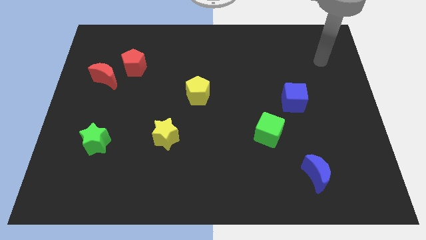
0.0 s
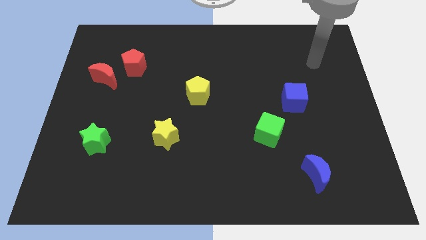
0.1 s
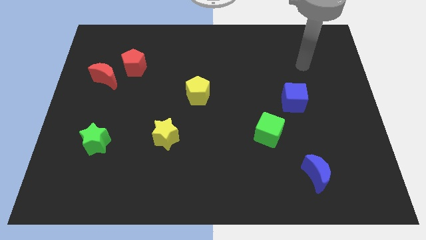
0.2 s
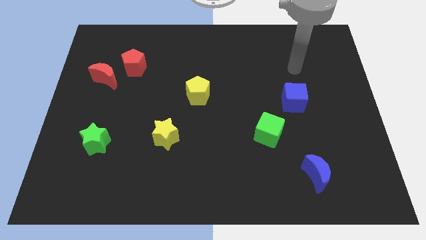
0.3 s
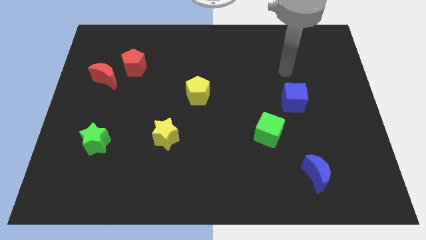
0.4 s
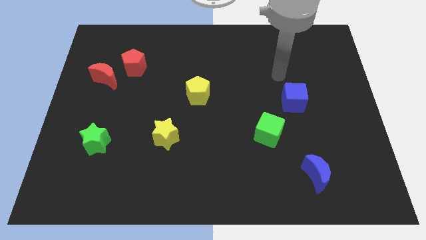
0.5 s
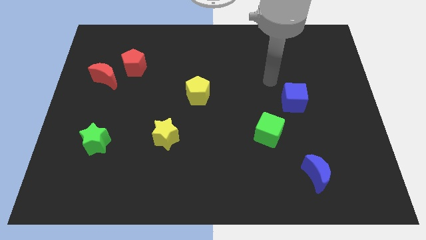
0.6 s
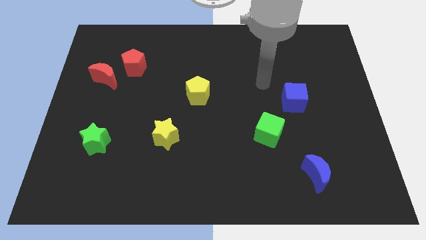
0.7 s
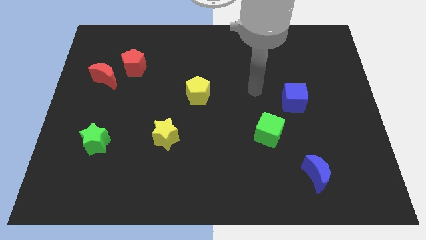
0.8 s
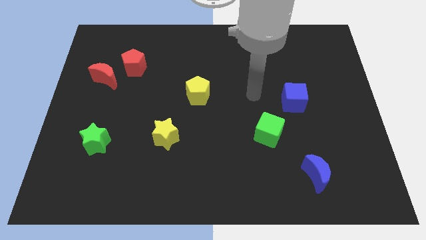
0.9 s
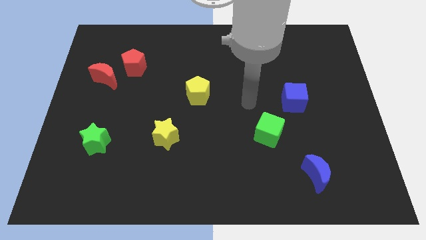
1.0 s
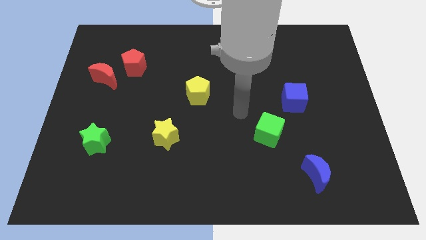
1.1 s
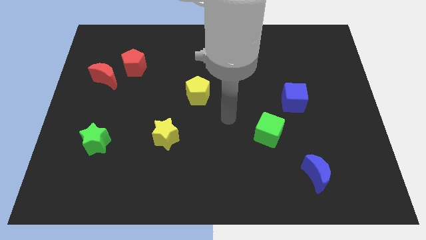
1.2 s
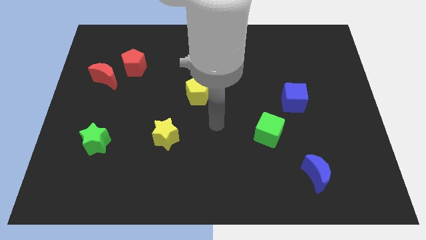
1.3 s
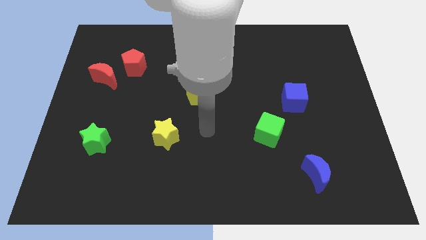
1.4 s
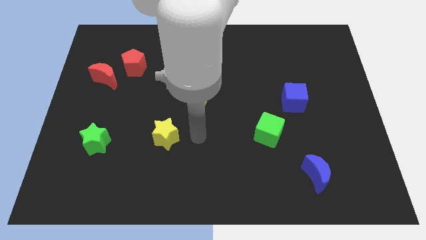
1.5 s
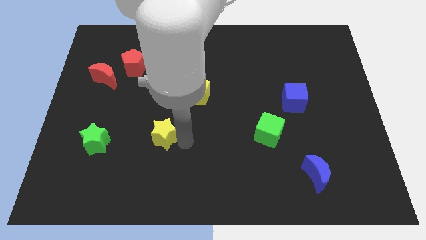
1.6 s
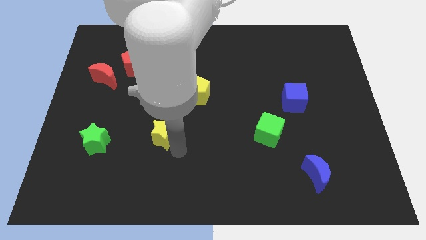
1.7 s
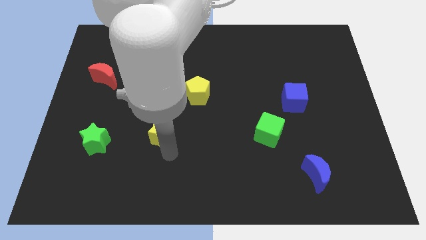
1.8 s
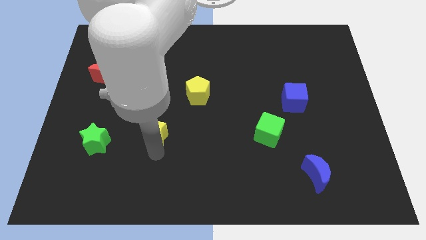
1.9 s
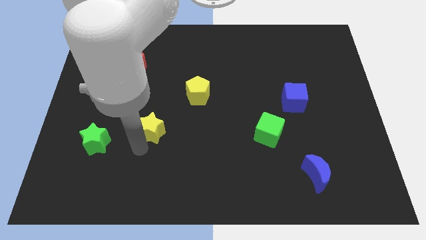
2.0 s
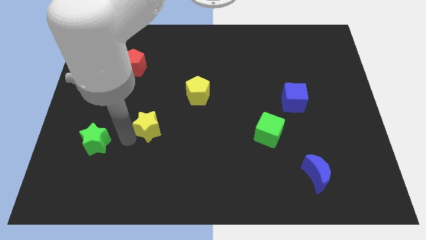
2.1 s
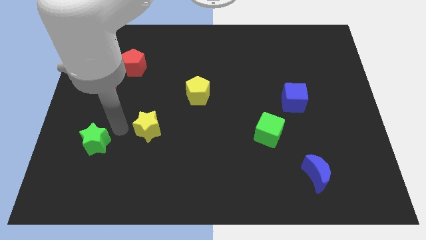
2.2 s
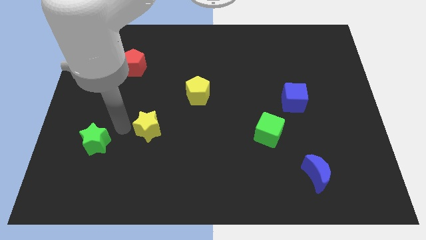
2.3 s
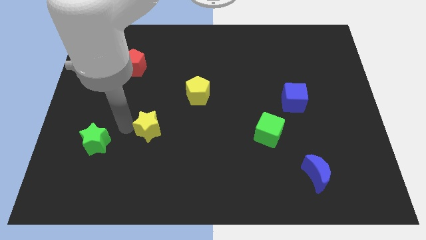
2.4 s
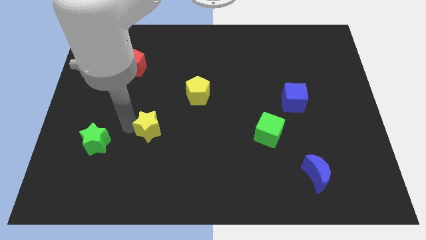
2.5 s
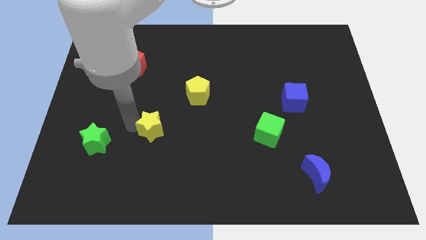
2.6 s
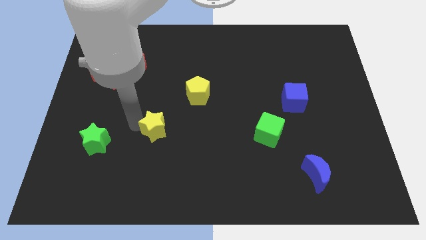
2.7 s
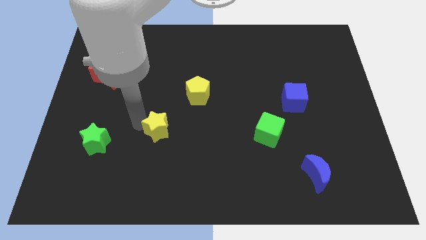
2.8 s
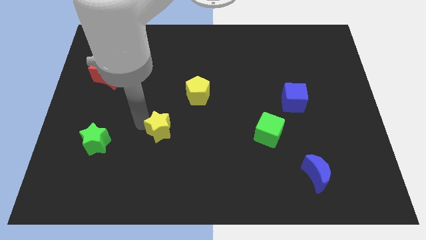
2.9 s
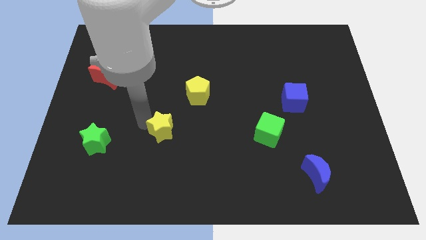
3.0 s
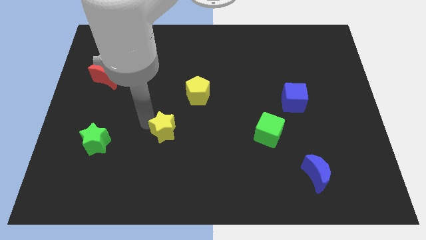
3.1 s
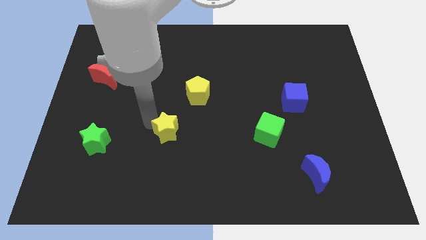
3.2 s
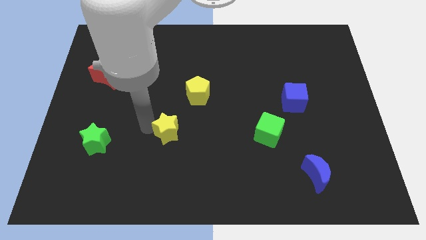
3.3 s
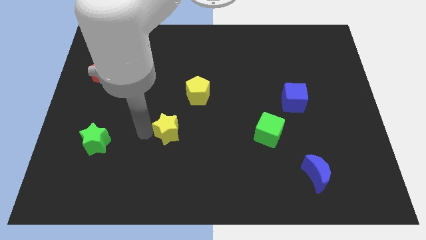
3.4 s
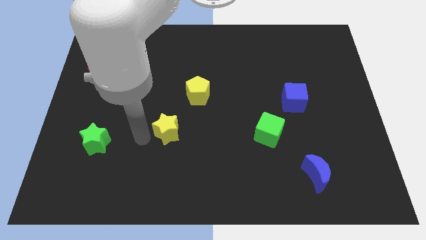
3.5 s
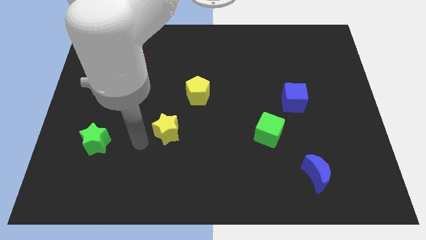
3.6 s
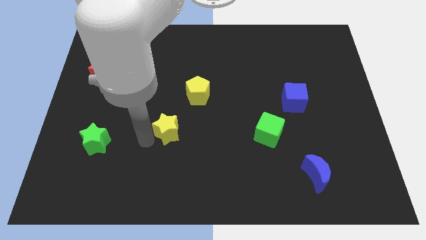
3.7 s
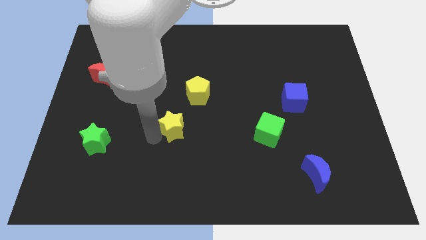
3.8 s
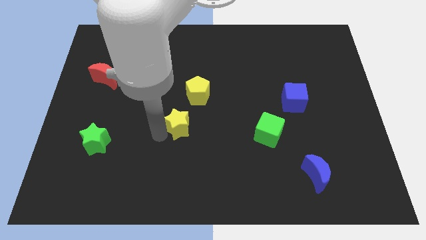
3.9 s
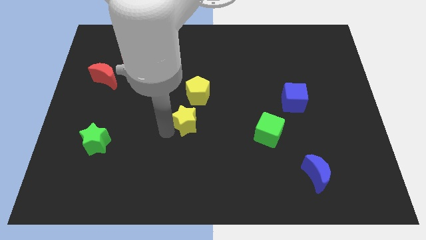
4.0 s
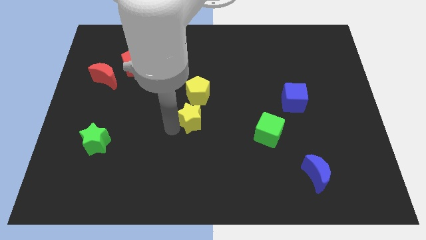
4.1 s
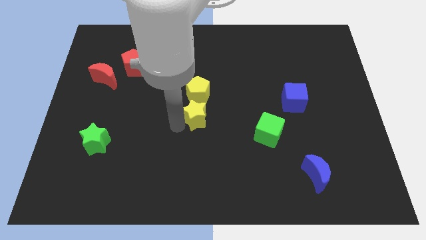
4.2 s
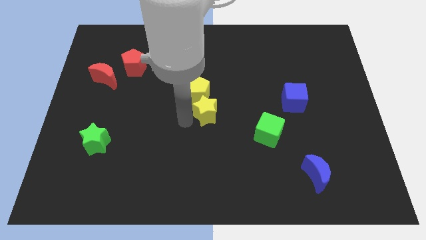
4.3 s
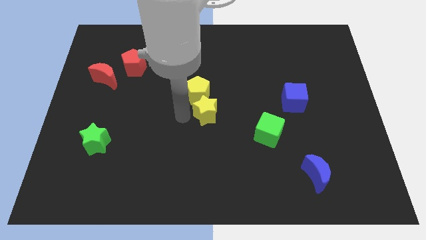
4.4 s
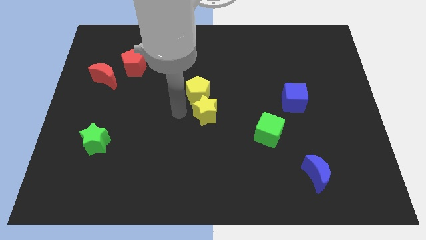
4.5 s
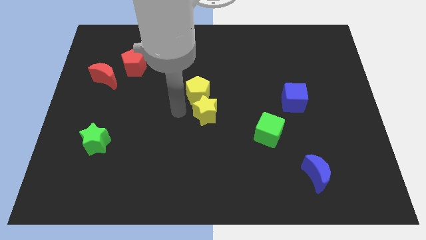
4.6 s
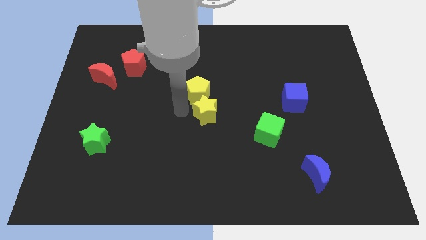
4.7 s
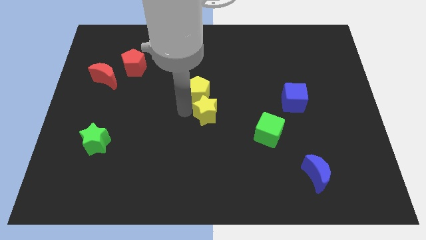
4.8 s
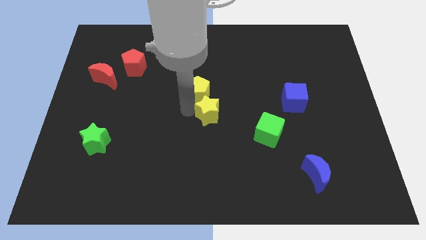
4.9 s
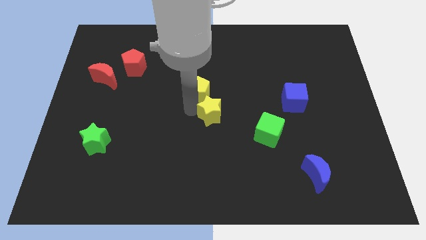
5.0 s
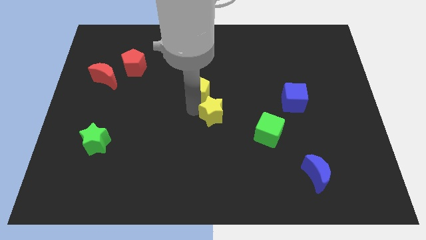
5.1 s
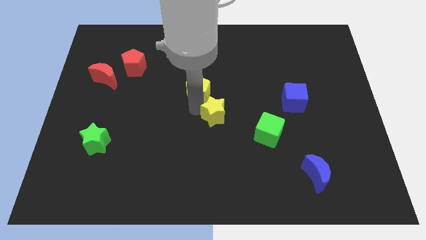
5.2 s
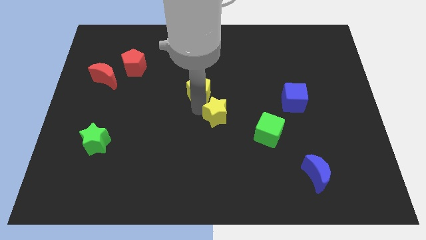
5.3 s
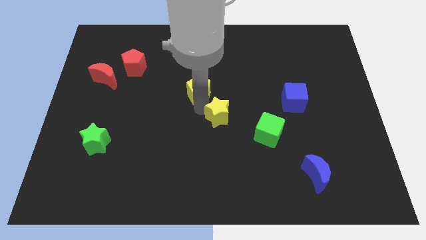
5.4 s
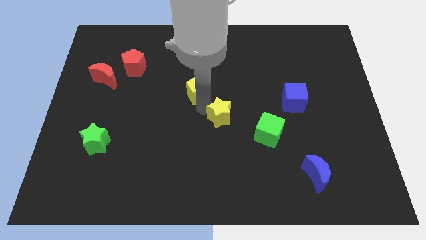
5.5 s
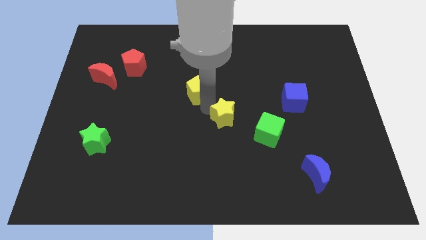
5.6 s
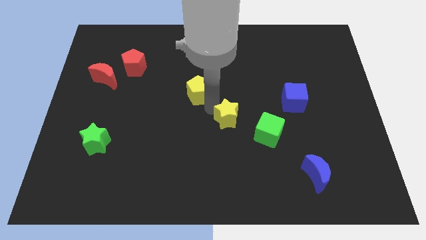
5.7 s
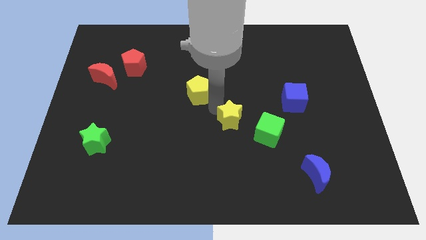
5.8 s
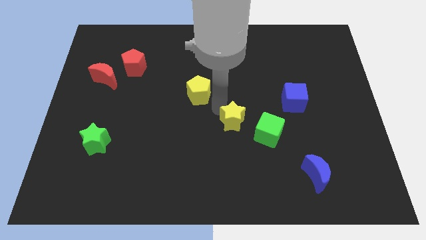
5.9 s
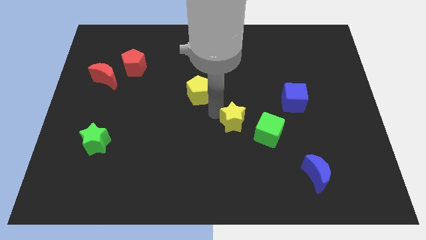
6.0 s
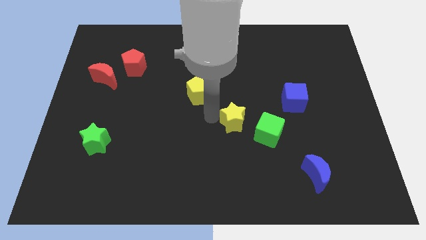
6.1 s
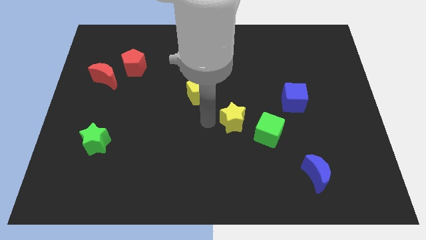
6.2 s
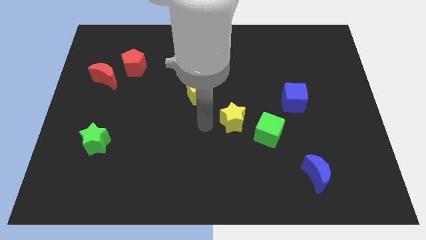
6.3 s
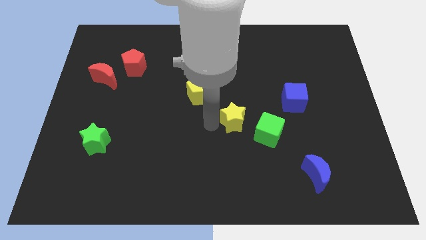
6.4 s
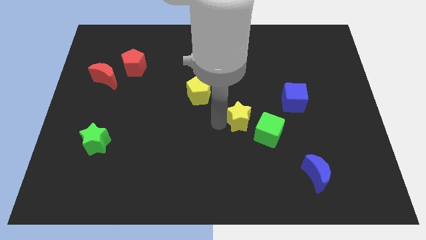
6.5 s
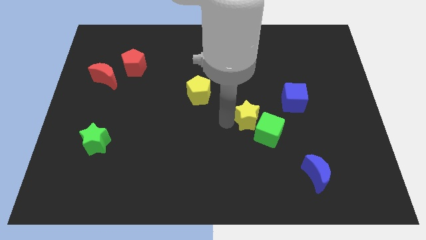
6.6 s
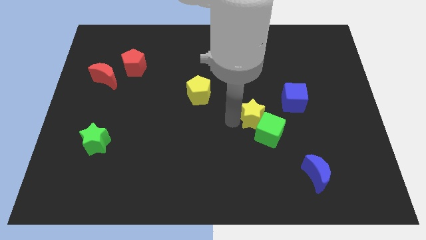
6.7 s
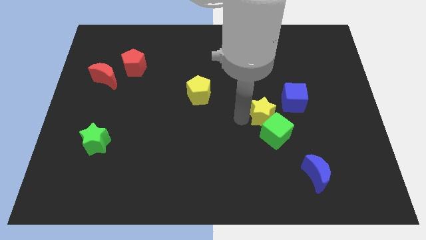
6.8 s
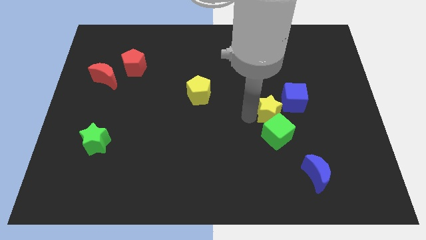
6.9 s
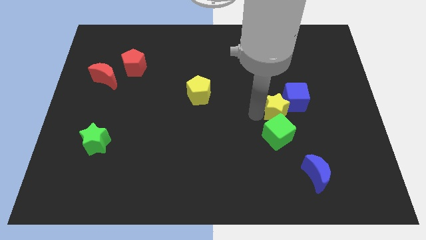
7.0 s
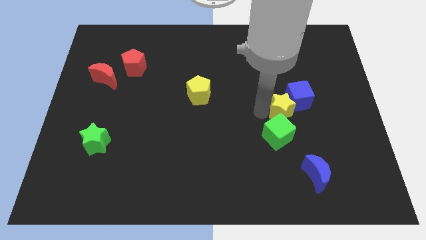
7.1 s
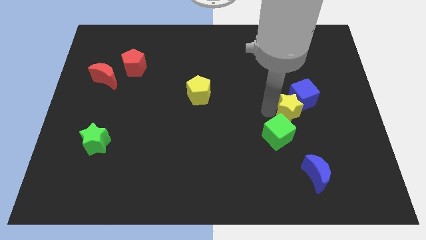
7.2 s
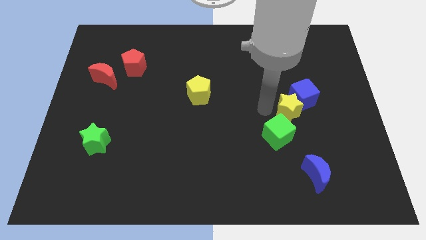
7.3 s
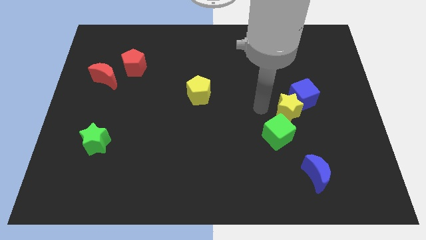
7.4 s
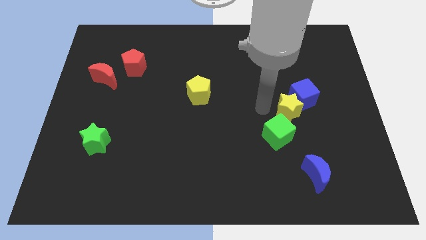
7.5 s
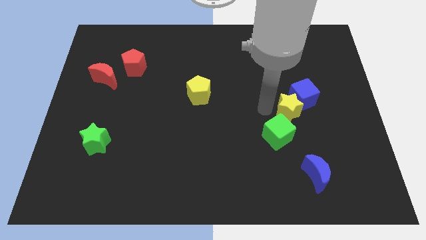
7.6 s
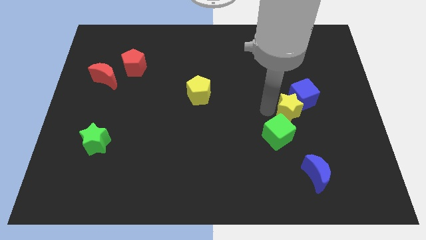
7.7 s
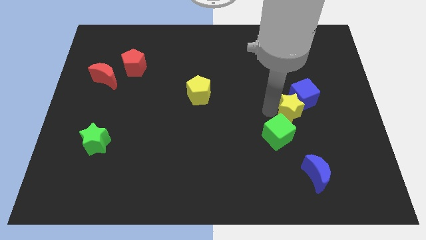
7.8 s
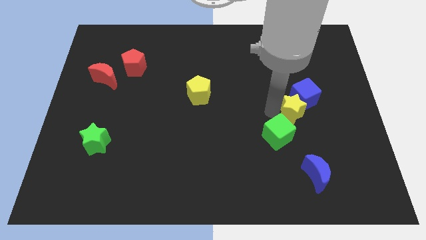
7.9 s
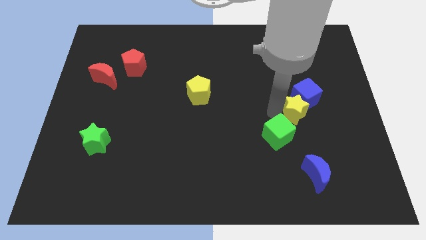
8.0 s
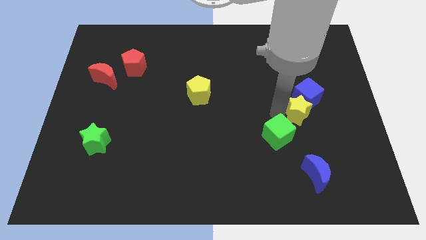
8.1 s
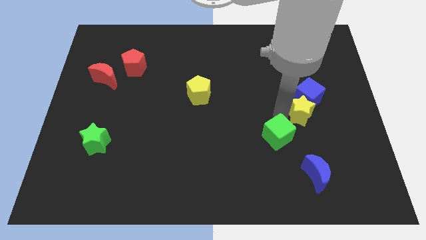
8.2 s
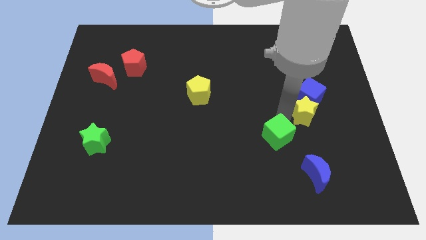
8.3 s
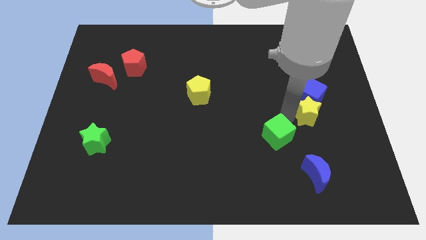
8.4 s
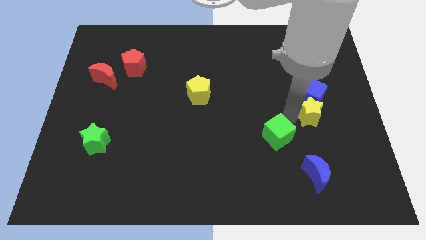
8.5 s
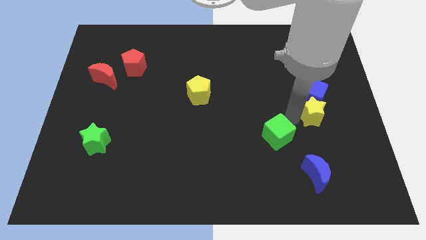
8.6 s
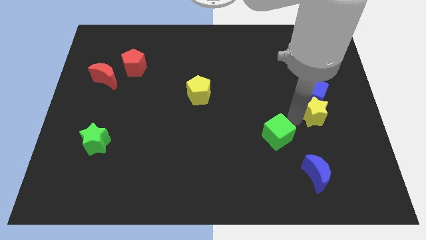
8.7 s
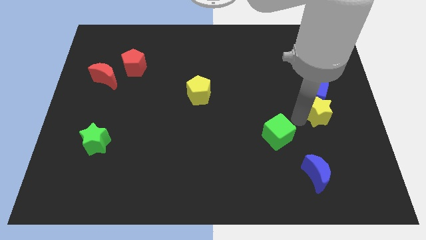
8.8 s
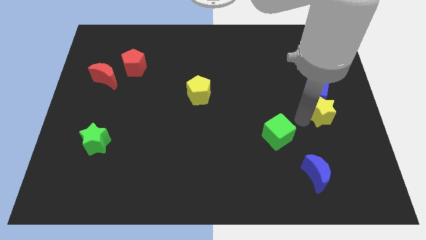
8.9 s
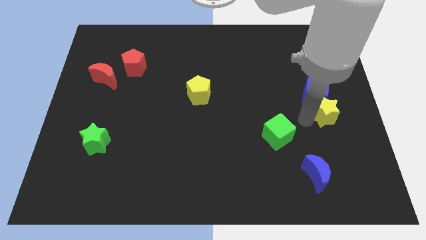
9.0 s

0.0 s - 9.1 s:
put the yellow star to the center right
